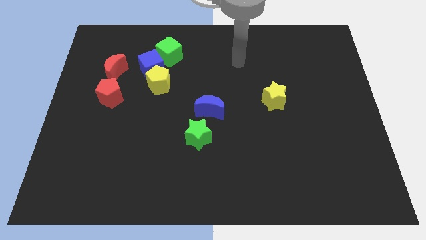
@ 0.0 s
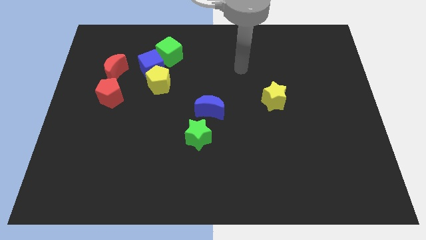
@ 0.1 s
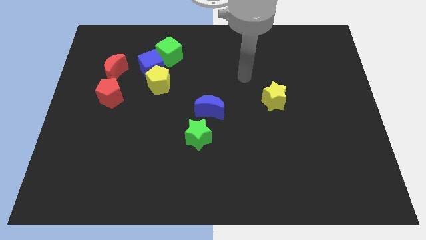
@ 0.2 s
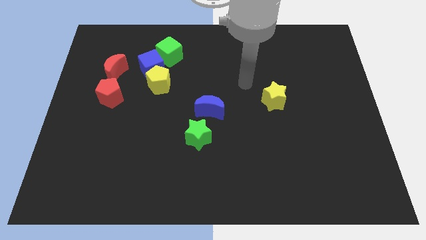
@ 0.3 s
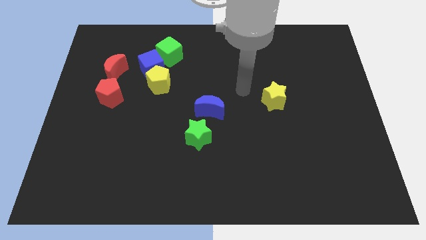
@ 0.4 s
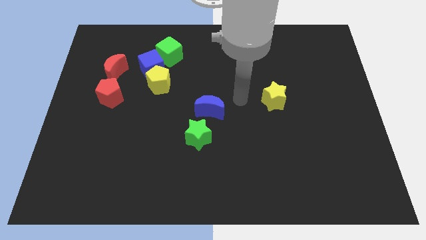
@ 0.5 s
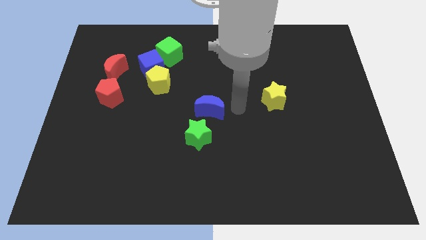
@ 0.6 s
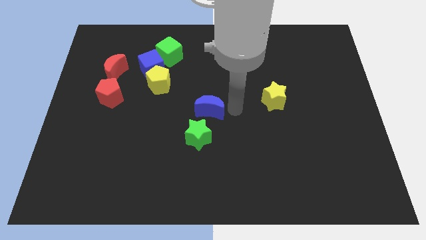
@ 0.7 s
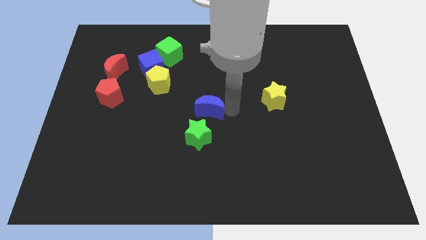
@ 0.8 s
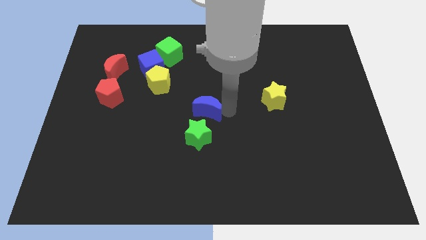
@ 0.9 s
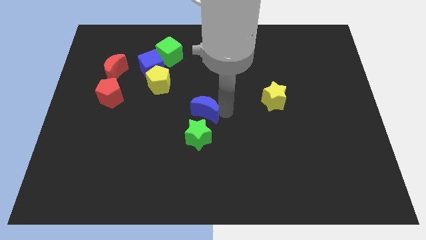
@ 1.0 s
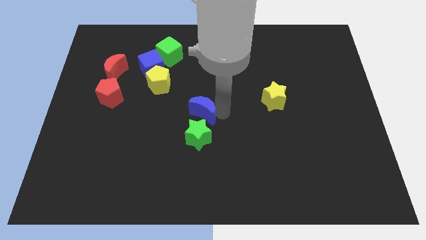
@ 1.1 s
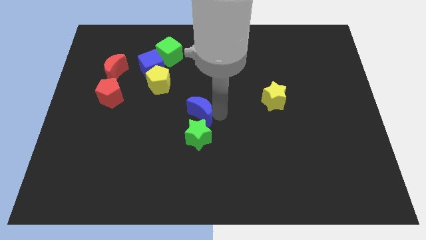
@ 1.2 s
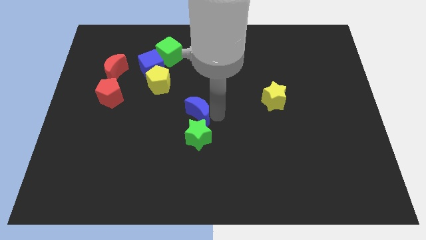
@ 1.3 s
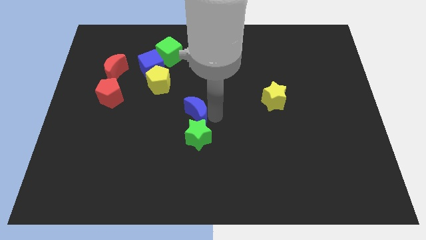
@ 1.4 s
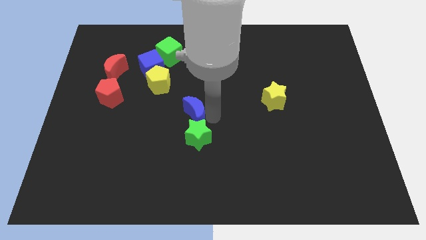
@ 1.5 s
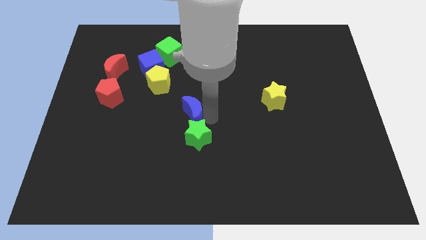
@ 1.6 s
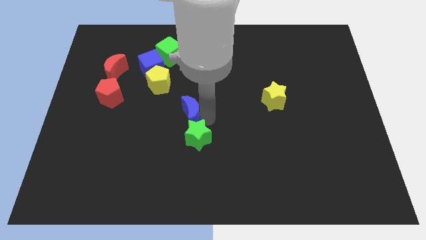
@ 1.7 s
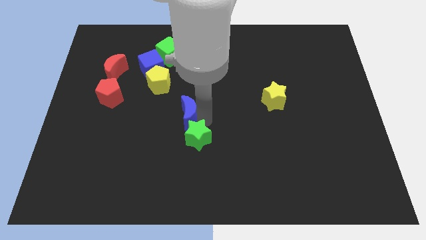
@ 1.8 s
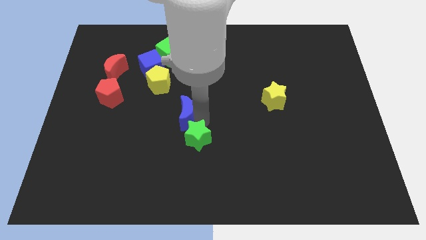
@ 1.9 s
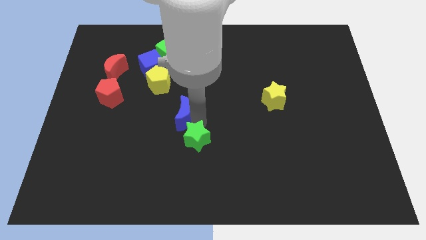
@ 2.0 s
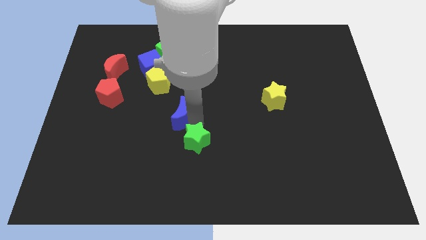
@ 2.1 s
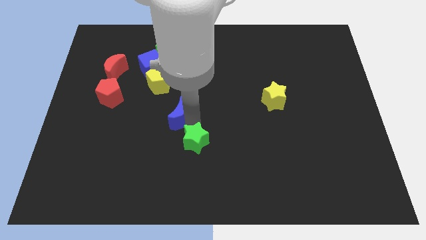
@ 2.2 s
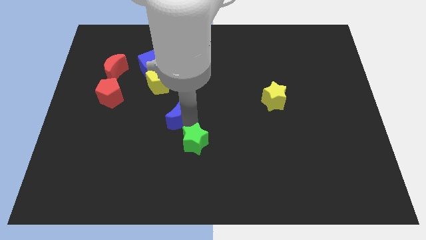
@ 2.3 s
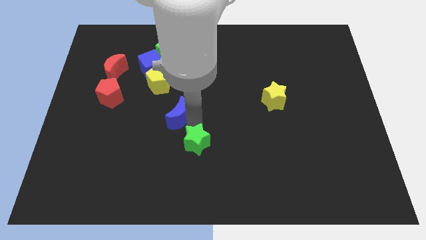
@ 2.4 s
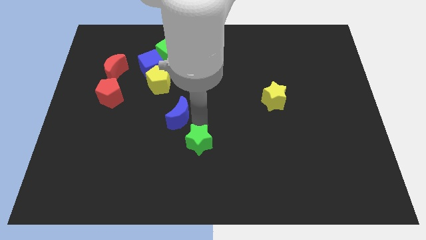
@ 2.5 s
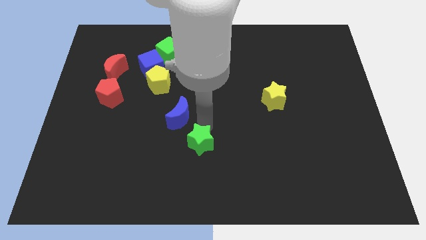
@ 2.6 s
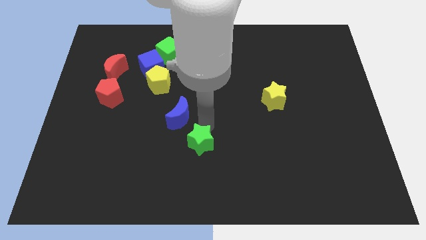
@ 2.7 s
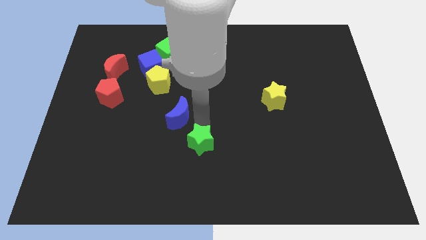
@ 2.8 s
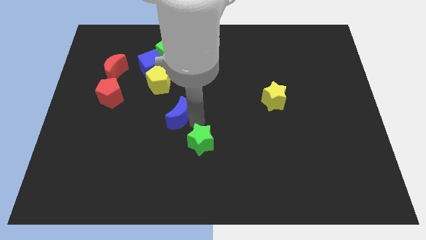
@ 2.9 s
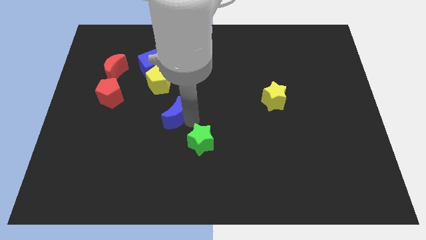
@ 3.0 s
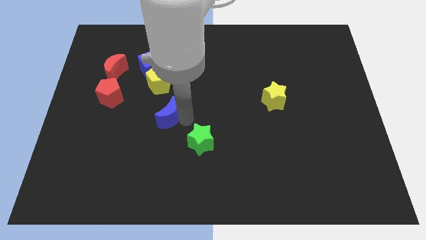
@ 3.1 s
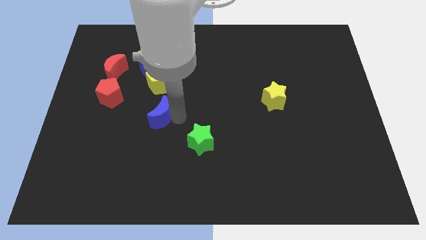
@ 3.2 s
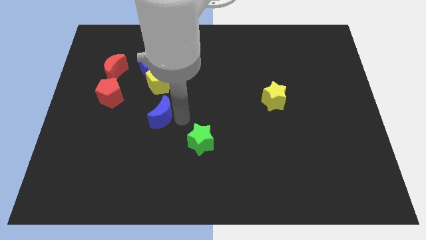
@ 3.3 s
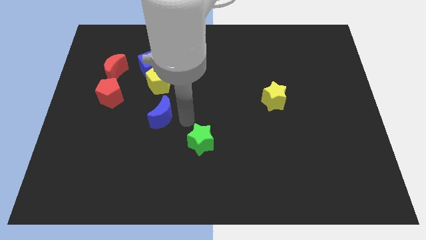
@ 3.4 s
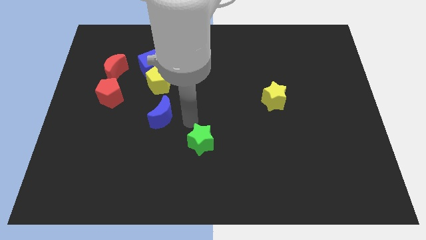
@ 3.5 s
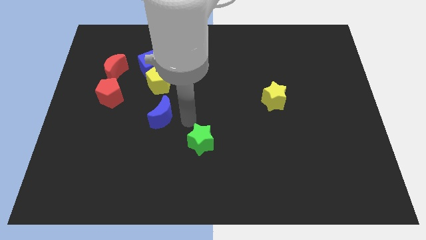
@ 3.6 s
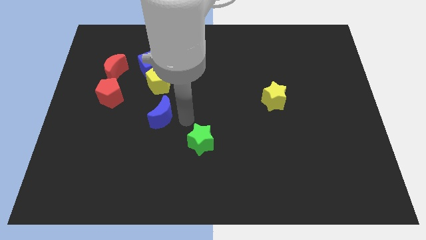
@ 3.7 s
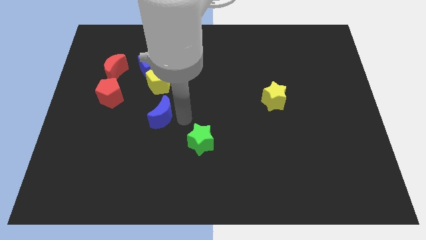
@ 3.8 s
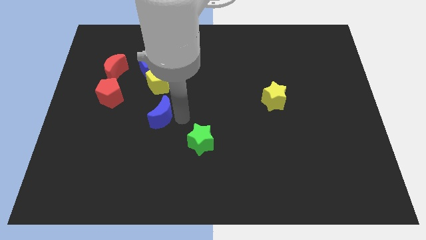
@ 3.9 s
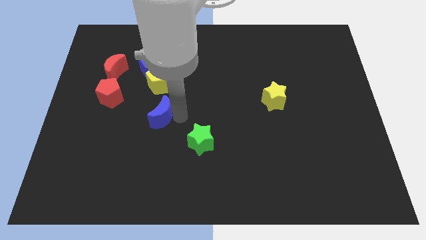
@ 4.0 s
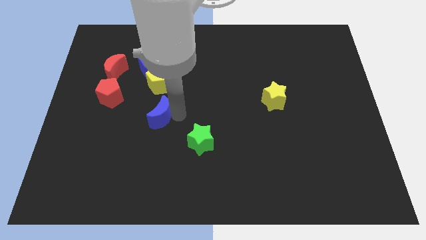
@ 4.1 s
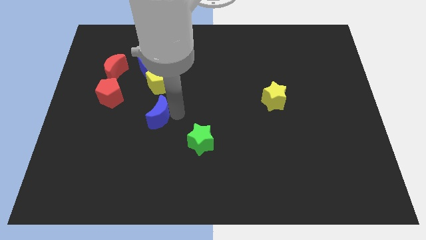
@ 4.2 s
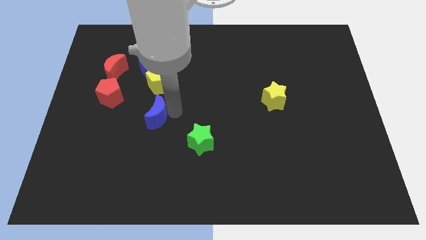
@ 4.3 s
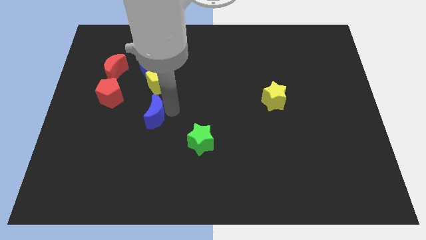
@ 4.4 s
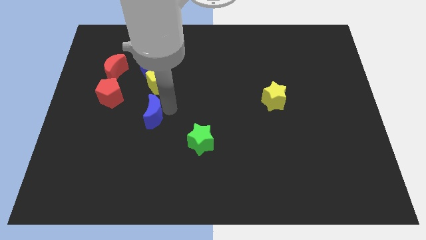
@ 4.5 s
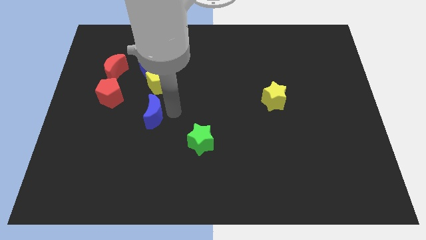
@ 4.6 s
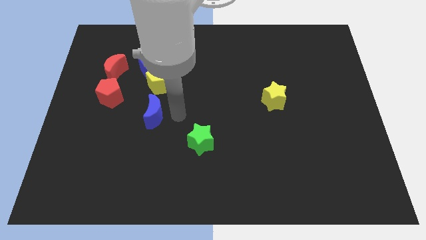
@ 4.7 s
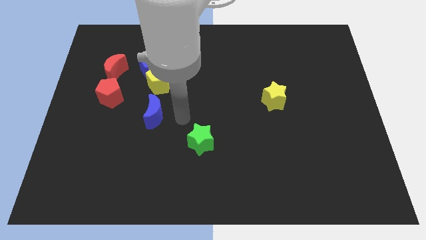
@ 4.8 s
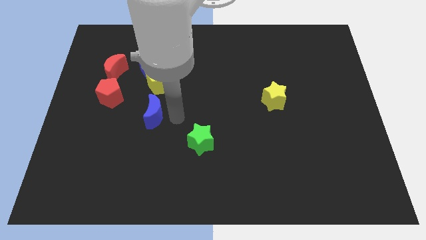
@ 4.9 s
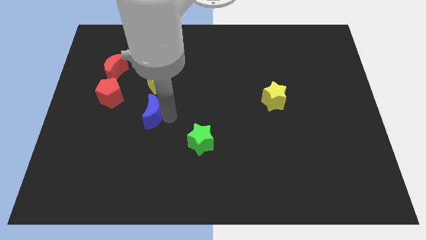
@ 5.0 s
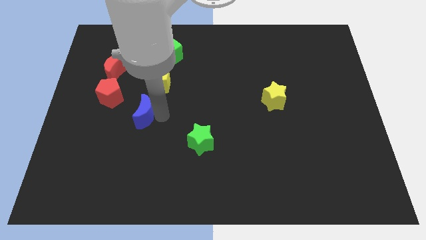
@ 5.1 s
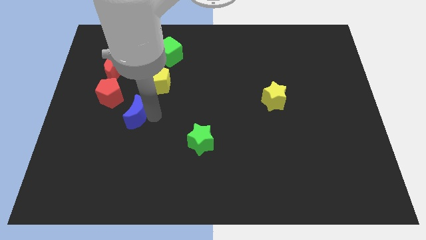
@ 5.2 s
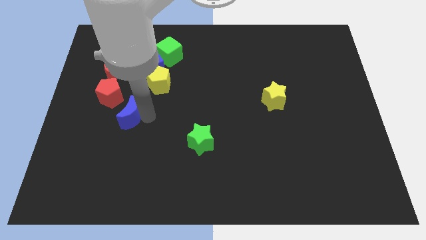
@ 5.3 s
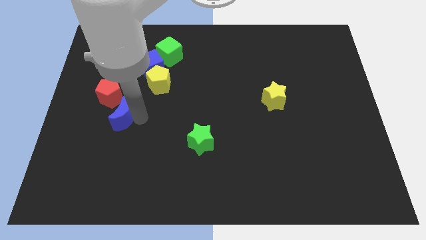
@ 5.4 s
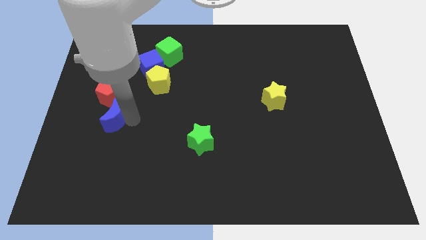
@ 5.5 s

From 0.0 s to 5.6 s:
move the blue moon to the bottom side of the red moon

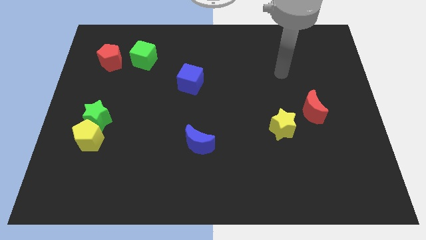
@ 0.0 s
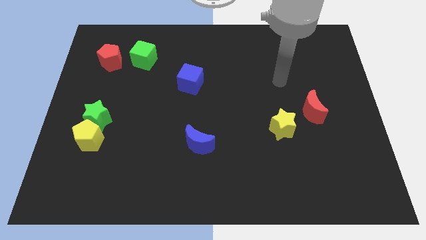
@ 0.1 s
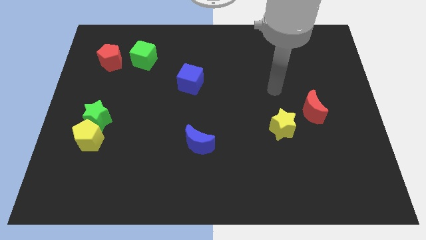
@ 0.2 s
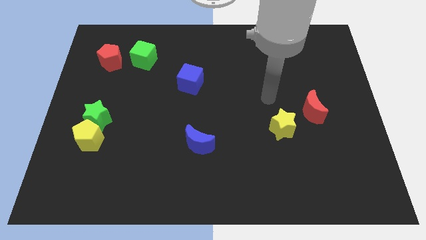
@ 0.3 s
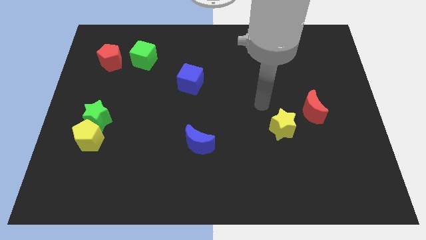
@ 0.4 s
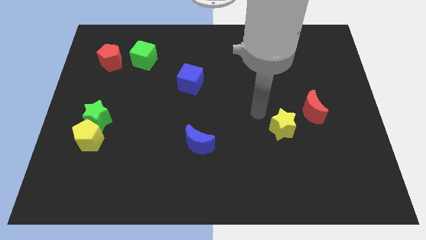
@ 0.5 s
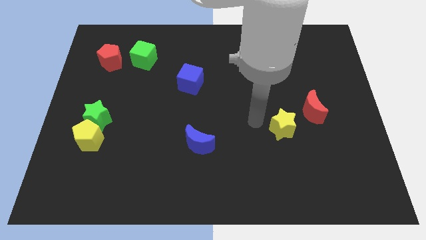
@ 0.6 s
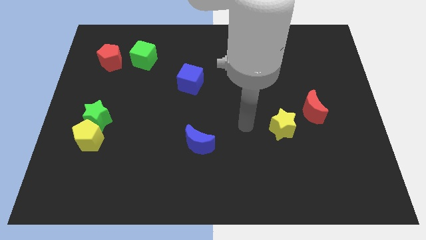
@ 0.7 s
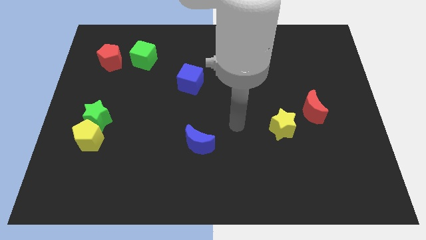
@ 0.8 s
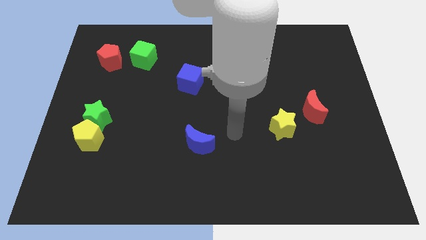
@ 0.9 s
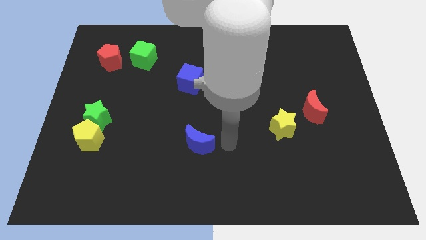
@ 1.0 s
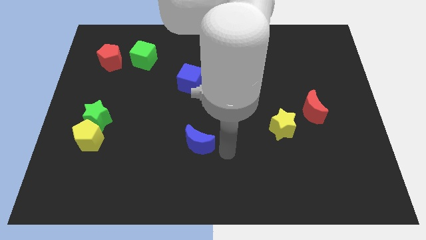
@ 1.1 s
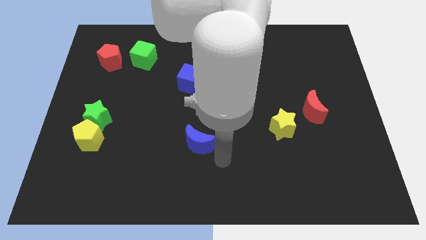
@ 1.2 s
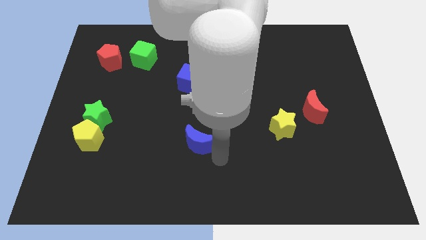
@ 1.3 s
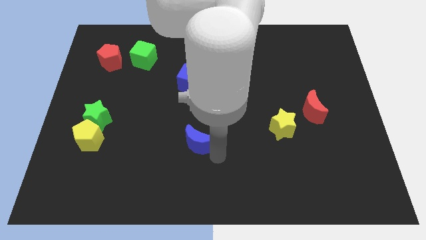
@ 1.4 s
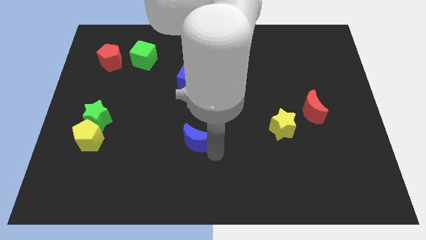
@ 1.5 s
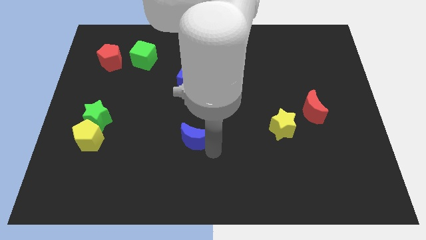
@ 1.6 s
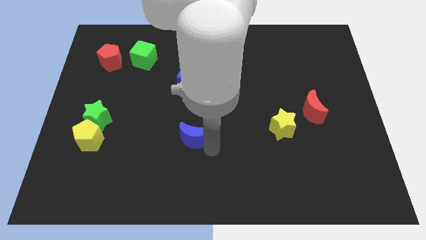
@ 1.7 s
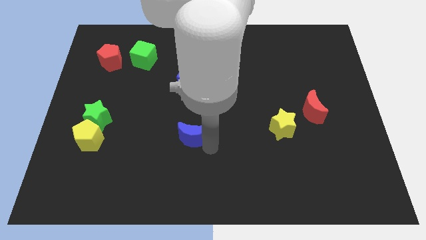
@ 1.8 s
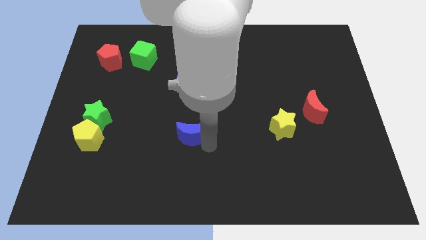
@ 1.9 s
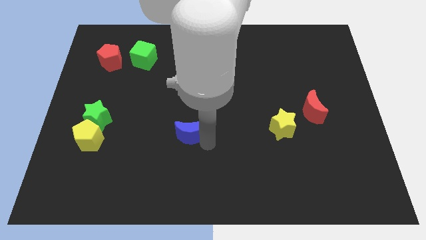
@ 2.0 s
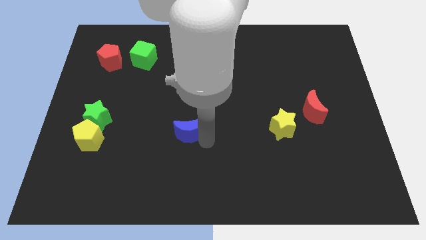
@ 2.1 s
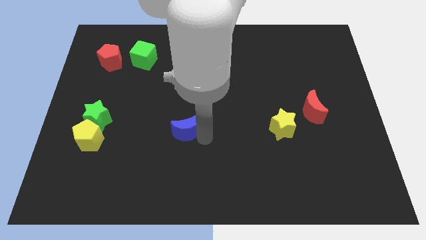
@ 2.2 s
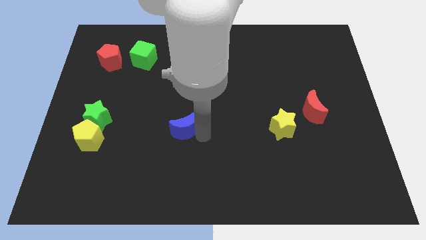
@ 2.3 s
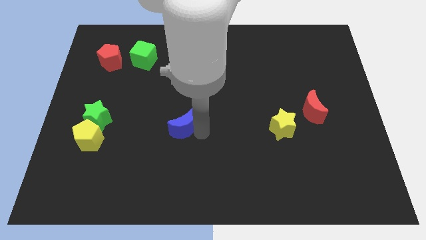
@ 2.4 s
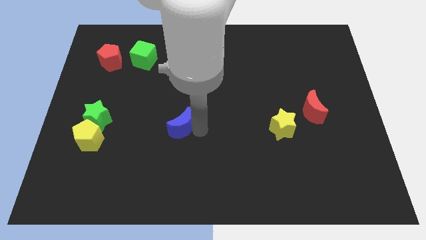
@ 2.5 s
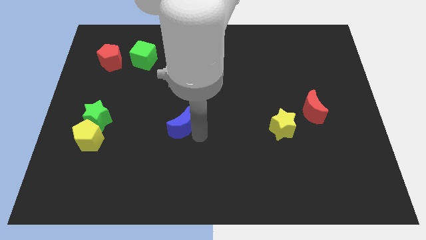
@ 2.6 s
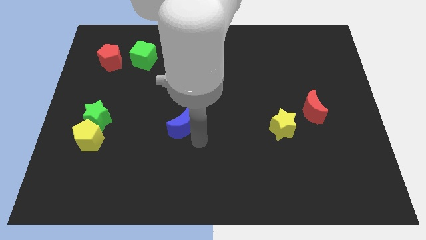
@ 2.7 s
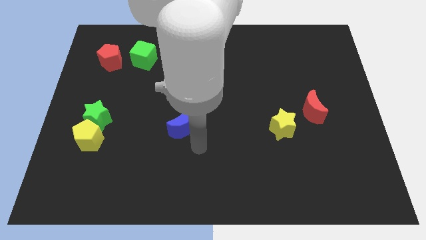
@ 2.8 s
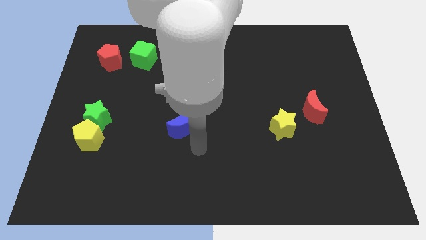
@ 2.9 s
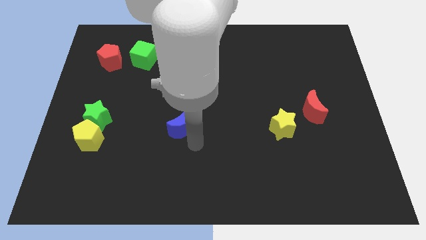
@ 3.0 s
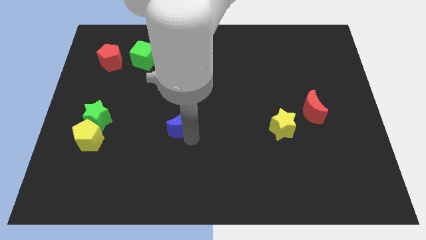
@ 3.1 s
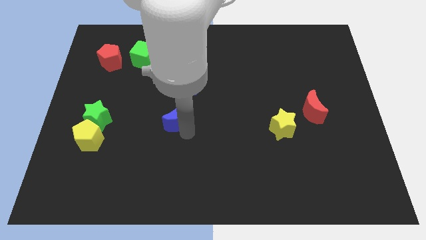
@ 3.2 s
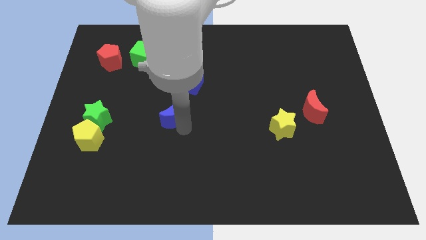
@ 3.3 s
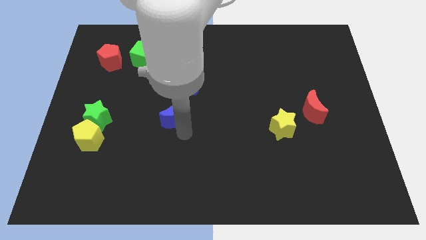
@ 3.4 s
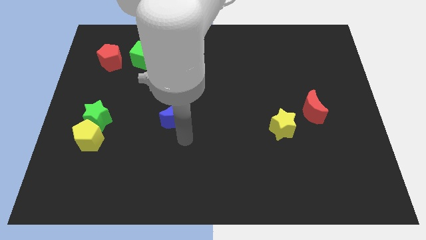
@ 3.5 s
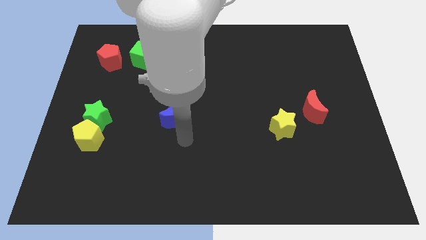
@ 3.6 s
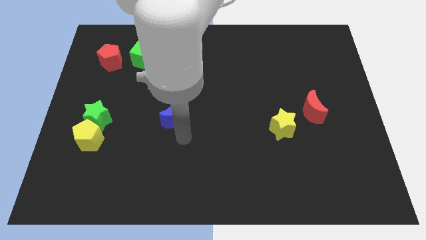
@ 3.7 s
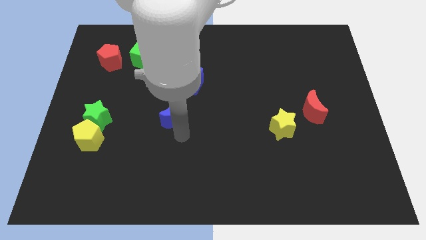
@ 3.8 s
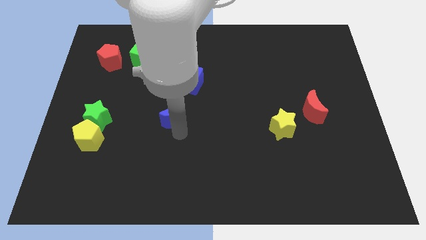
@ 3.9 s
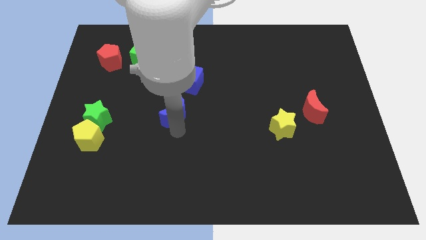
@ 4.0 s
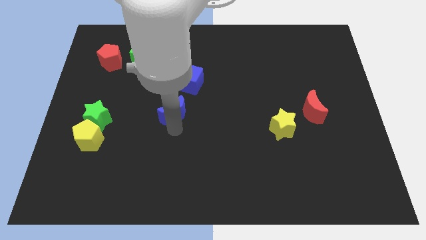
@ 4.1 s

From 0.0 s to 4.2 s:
move the blue moon to the bottom left side of the blue cube
